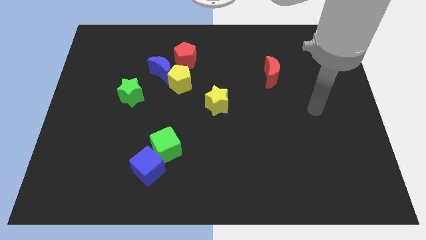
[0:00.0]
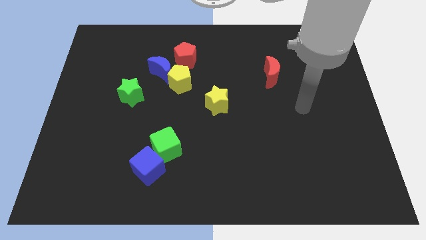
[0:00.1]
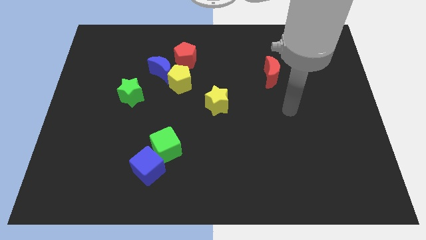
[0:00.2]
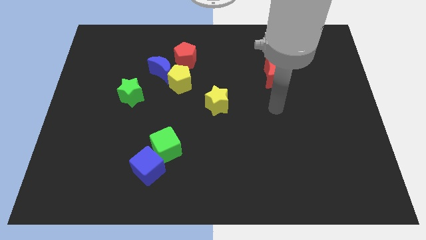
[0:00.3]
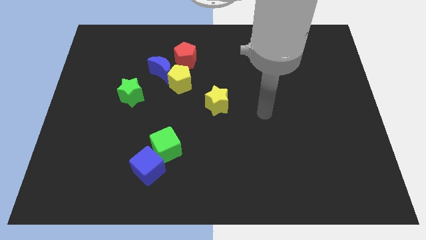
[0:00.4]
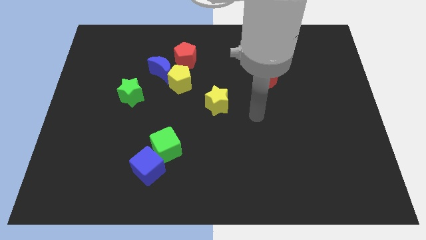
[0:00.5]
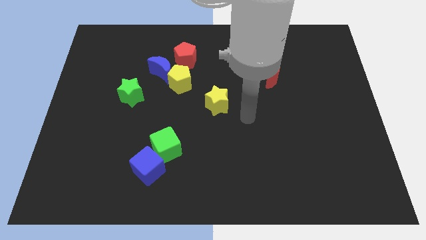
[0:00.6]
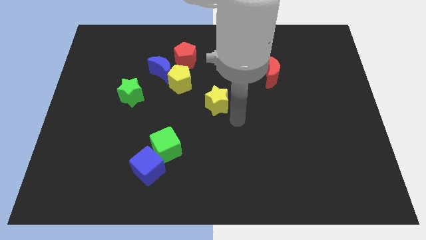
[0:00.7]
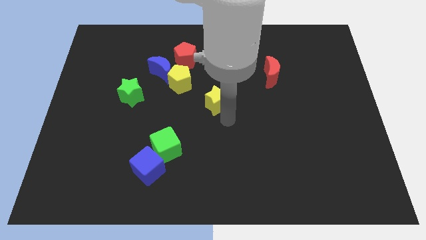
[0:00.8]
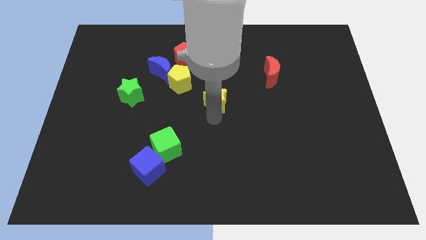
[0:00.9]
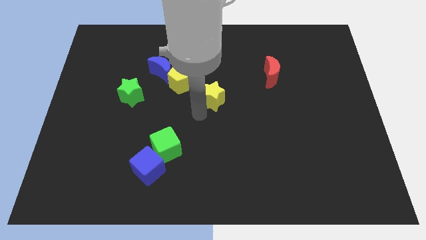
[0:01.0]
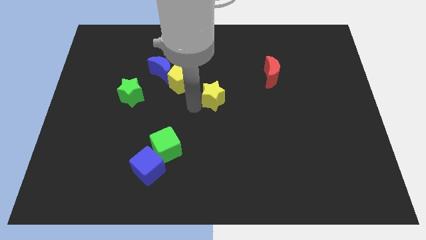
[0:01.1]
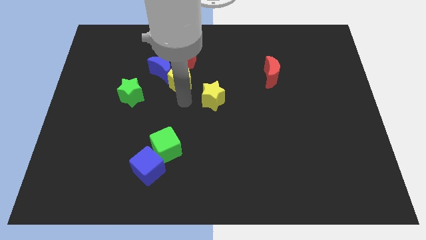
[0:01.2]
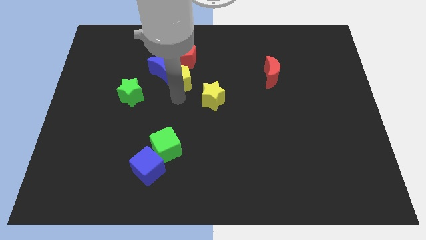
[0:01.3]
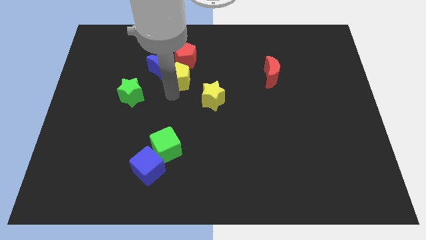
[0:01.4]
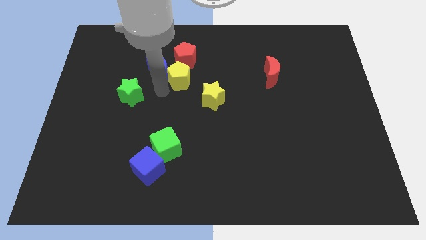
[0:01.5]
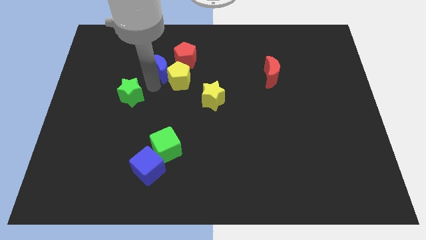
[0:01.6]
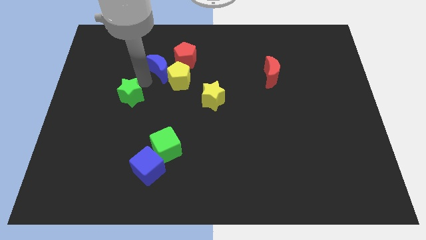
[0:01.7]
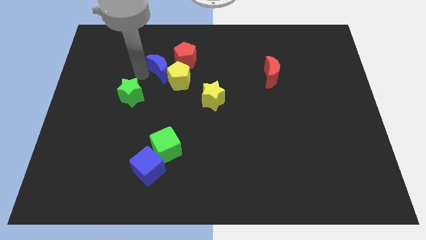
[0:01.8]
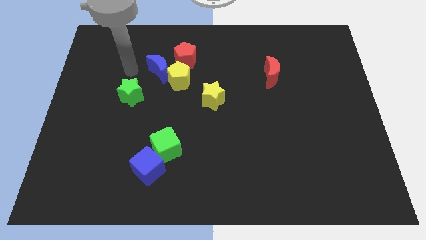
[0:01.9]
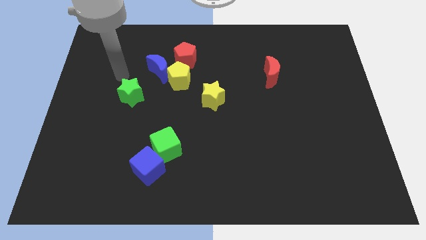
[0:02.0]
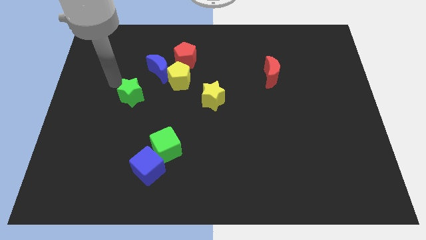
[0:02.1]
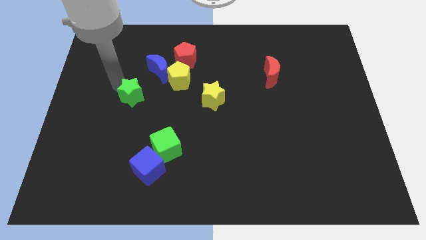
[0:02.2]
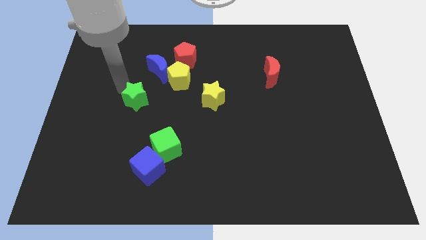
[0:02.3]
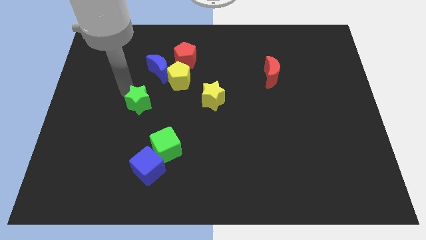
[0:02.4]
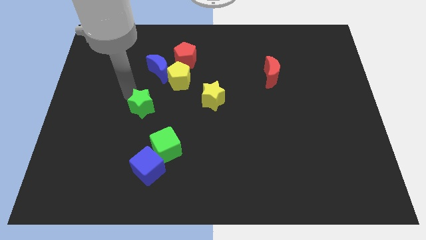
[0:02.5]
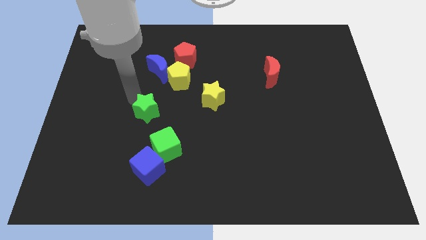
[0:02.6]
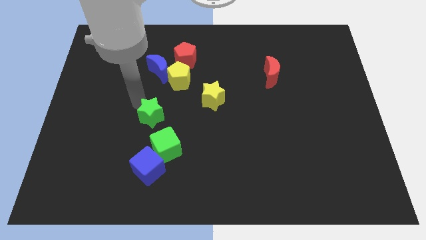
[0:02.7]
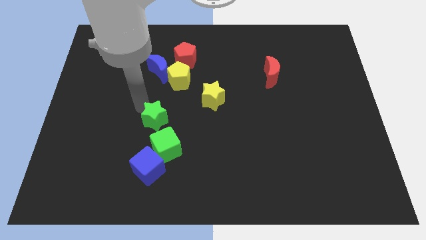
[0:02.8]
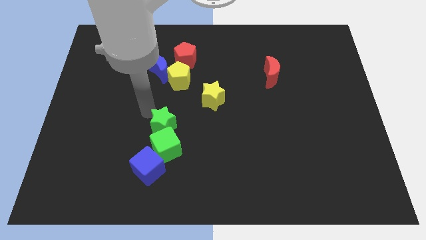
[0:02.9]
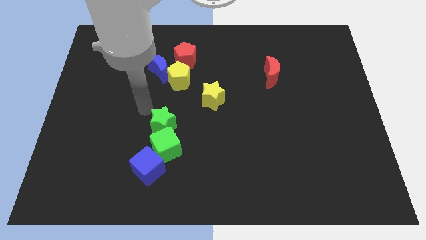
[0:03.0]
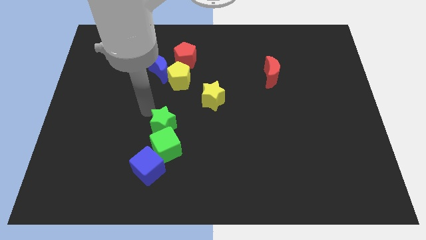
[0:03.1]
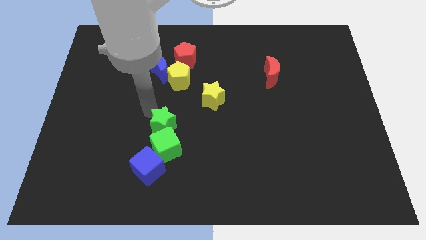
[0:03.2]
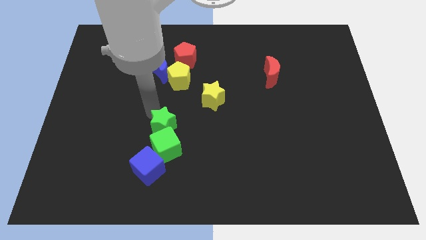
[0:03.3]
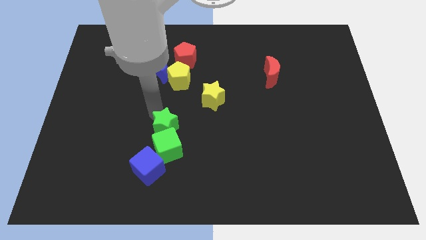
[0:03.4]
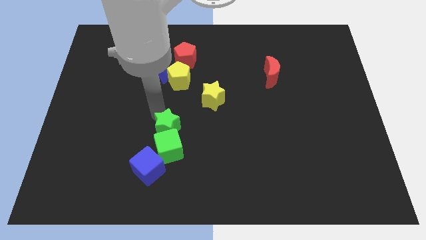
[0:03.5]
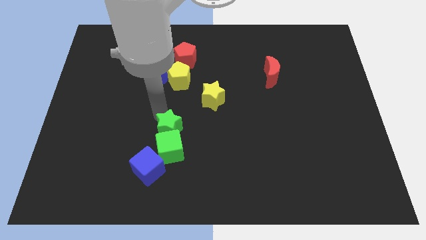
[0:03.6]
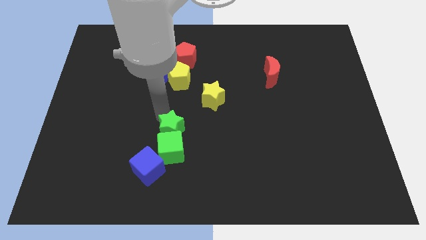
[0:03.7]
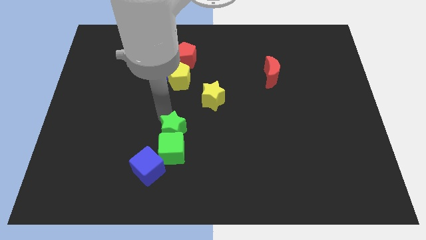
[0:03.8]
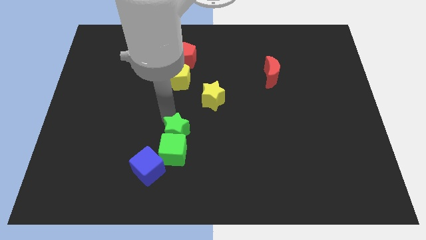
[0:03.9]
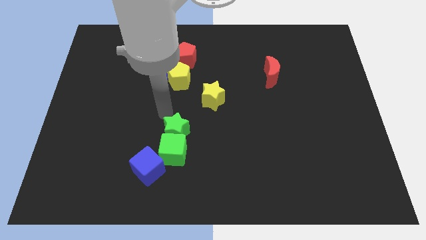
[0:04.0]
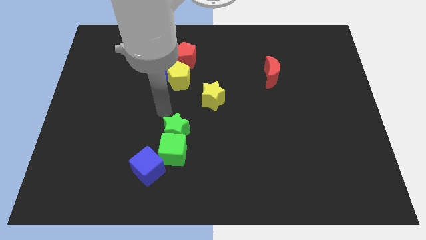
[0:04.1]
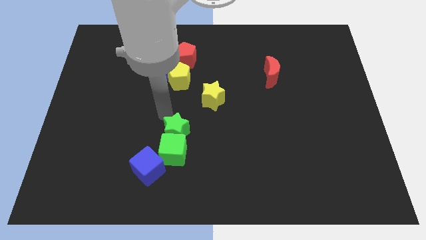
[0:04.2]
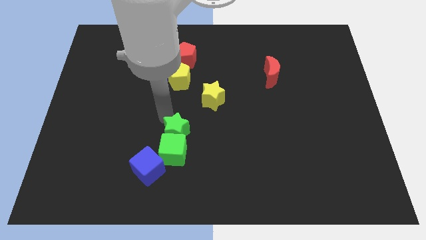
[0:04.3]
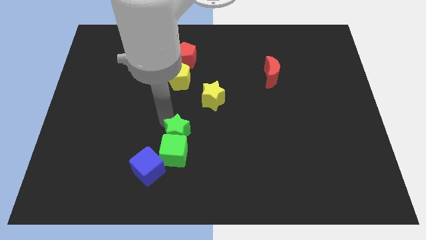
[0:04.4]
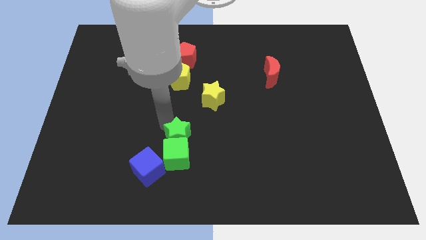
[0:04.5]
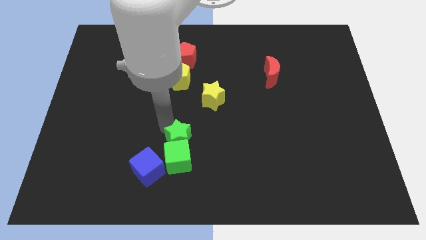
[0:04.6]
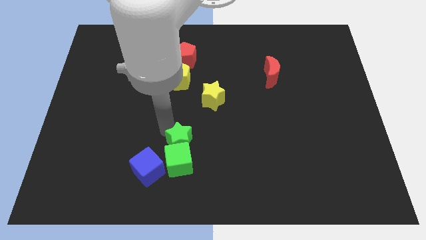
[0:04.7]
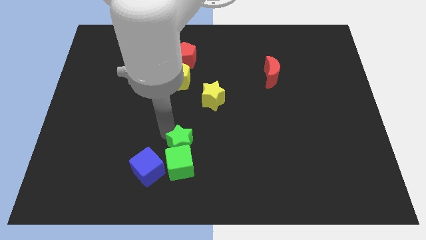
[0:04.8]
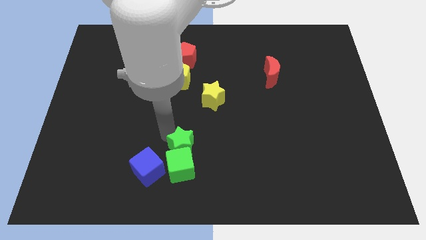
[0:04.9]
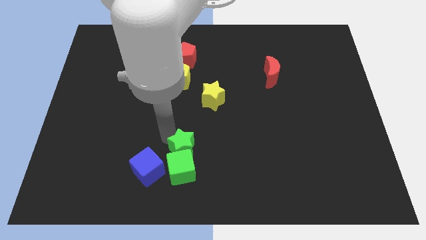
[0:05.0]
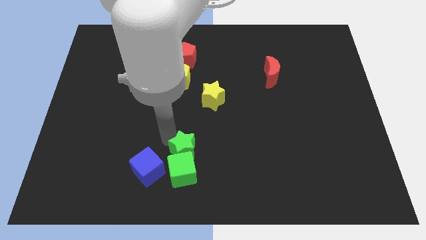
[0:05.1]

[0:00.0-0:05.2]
push the green star diagonally downwards and right

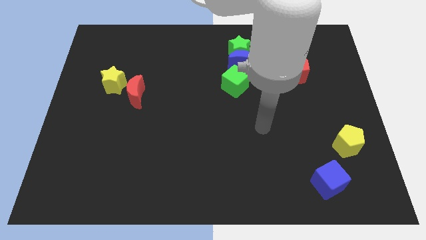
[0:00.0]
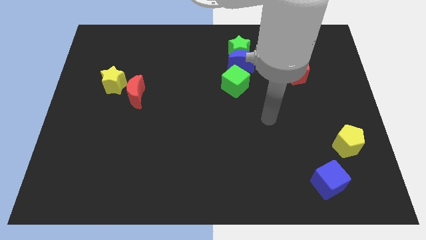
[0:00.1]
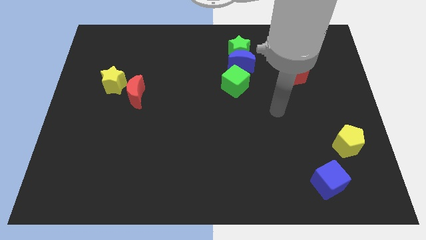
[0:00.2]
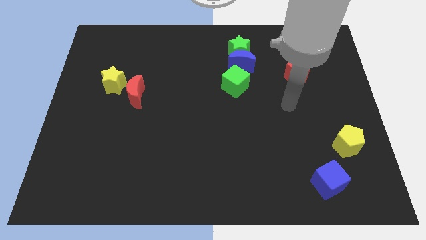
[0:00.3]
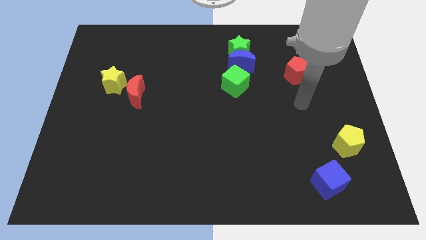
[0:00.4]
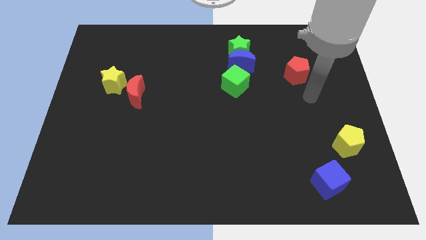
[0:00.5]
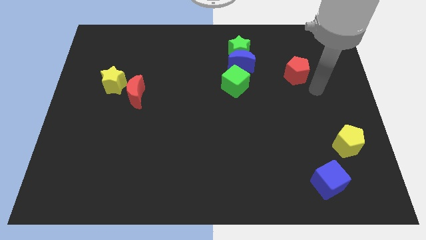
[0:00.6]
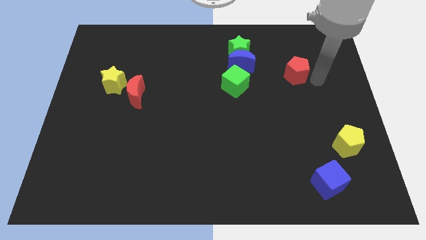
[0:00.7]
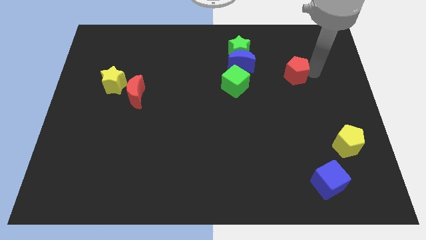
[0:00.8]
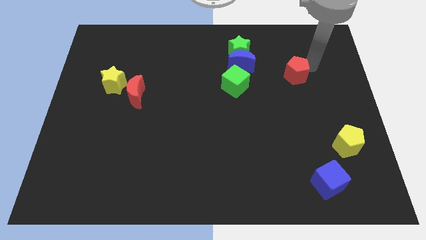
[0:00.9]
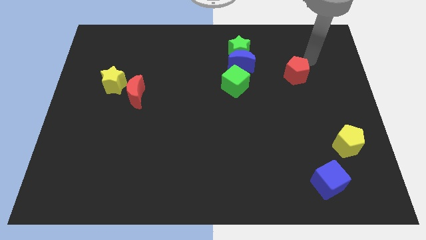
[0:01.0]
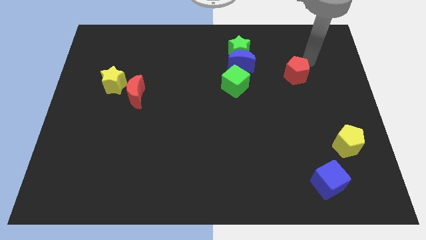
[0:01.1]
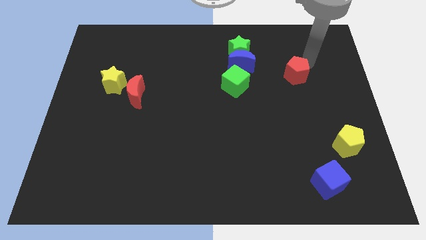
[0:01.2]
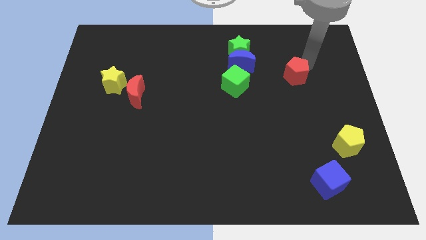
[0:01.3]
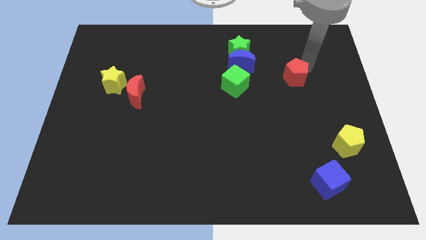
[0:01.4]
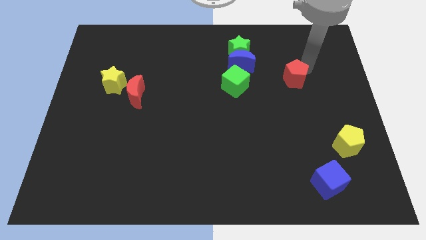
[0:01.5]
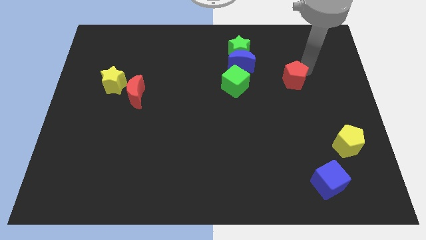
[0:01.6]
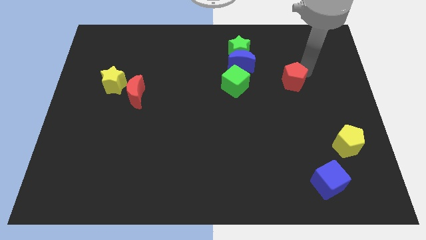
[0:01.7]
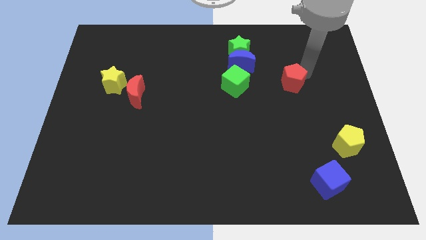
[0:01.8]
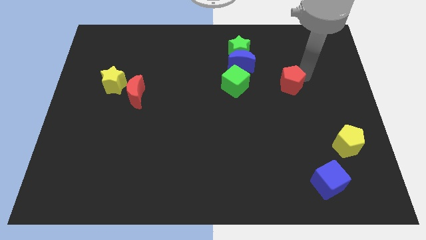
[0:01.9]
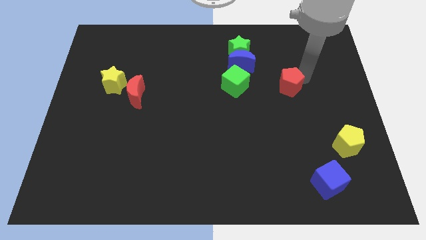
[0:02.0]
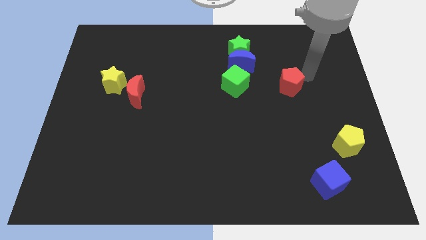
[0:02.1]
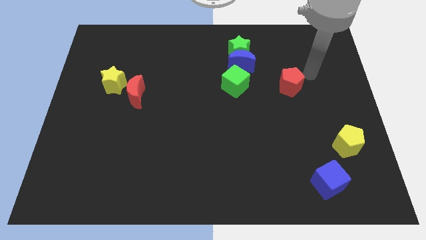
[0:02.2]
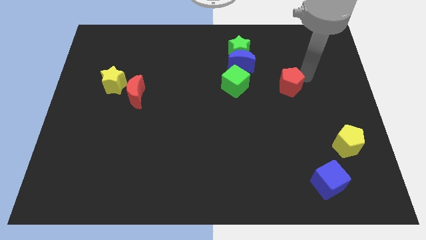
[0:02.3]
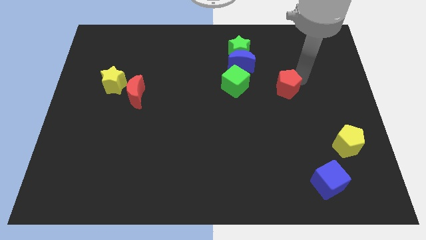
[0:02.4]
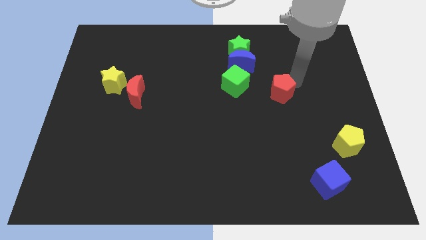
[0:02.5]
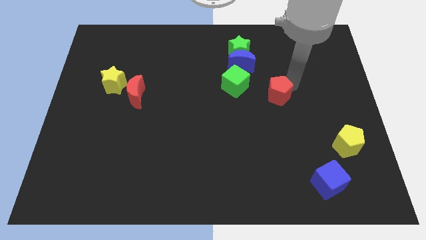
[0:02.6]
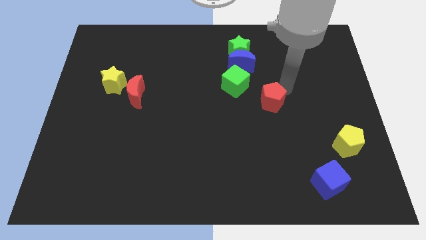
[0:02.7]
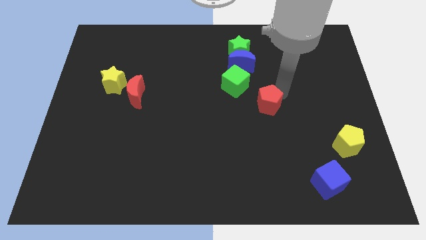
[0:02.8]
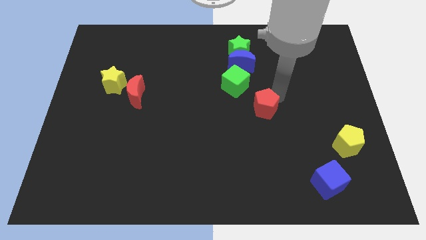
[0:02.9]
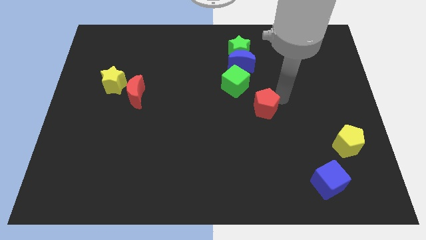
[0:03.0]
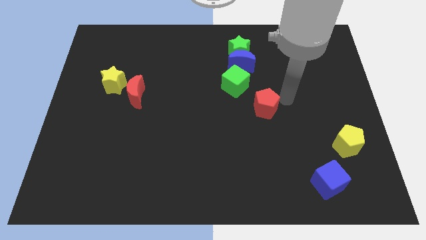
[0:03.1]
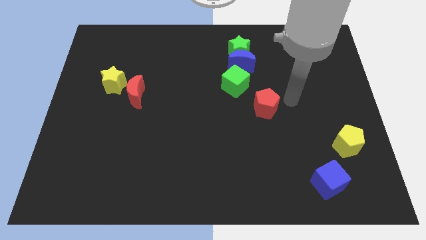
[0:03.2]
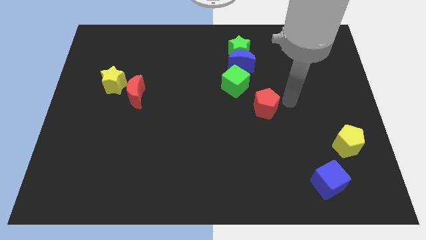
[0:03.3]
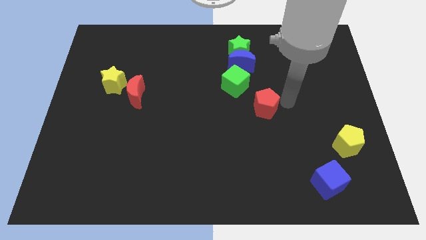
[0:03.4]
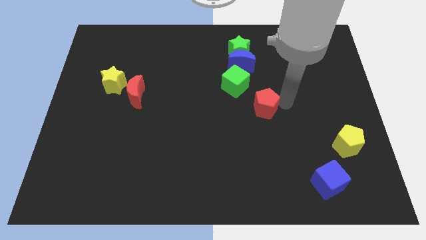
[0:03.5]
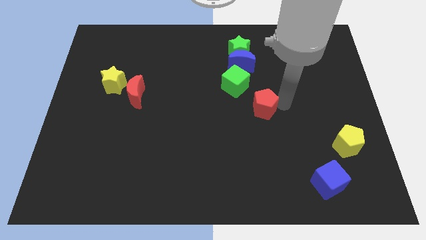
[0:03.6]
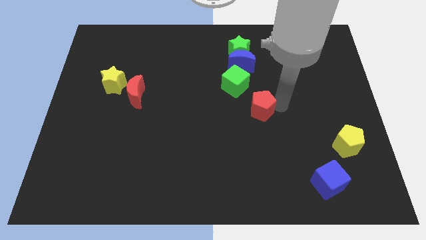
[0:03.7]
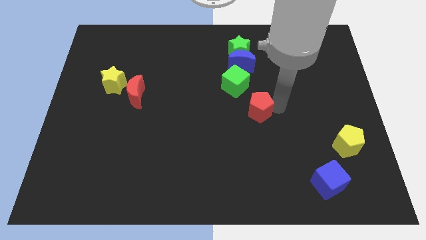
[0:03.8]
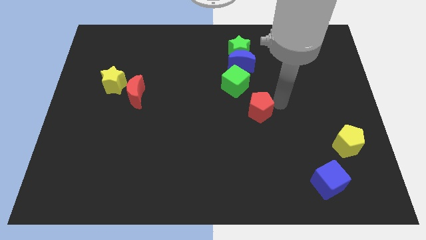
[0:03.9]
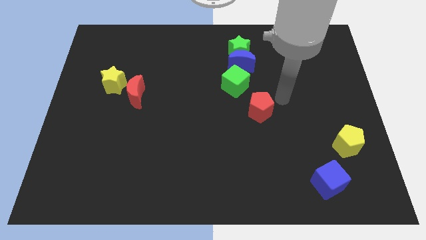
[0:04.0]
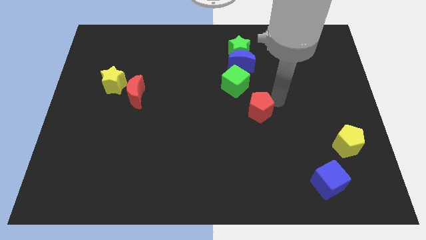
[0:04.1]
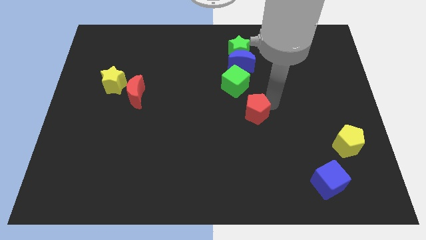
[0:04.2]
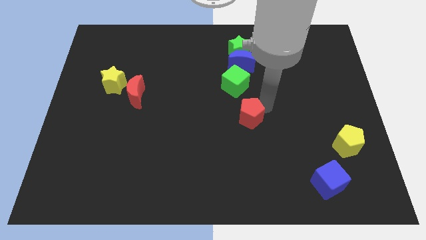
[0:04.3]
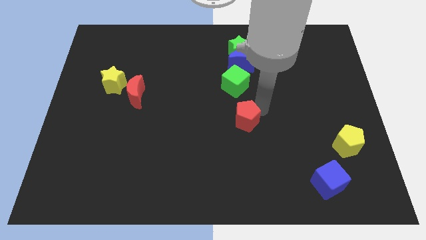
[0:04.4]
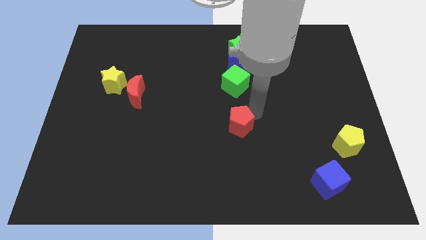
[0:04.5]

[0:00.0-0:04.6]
slide the red pentagon downwards and then left
